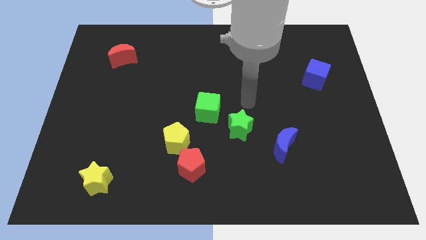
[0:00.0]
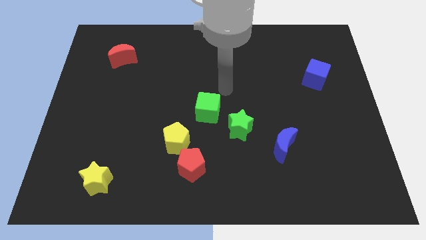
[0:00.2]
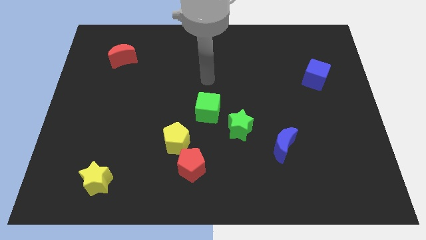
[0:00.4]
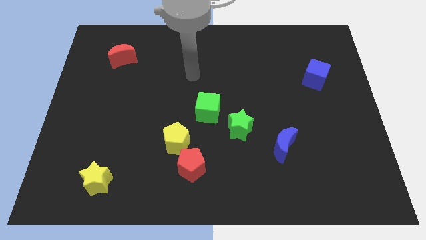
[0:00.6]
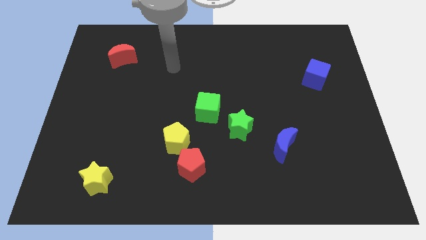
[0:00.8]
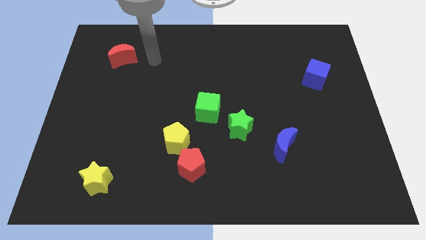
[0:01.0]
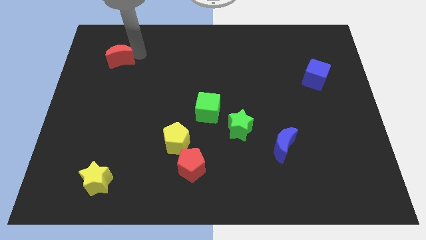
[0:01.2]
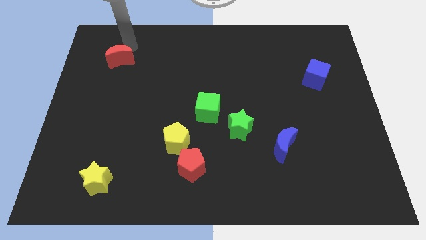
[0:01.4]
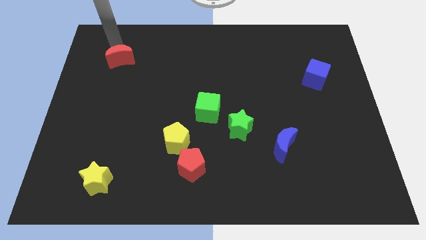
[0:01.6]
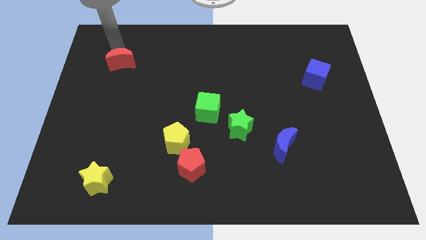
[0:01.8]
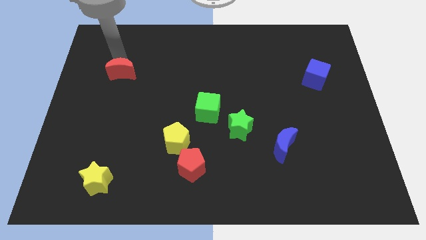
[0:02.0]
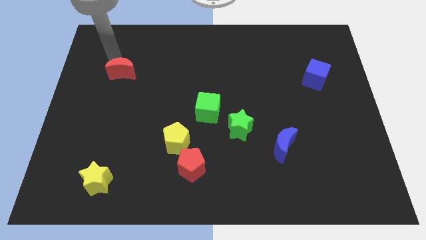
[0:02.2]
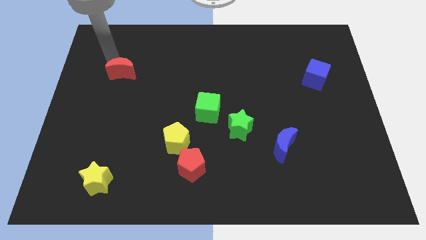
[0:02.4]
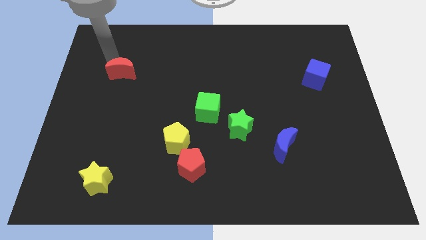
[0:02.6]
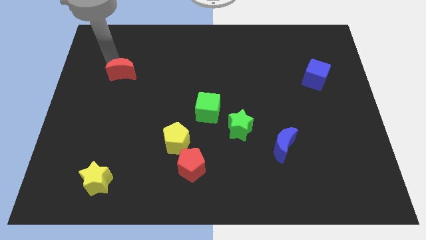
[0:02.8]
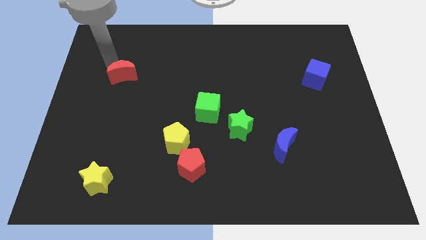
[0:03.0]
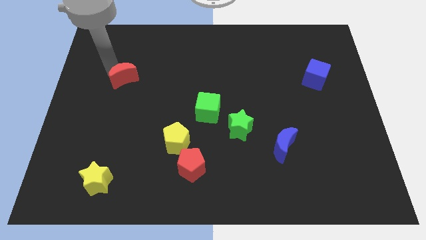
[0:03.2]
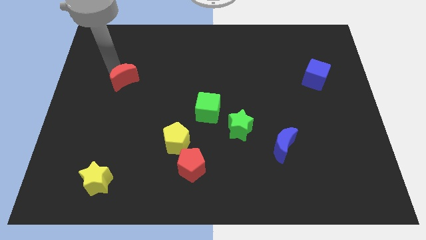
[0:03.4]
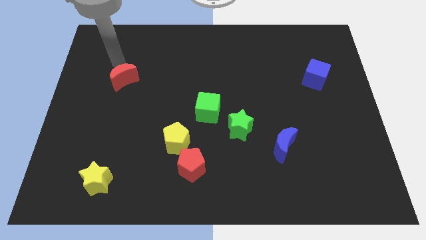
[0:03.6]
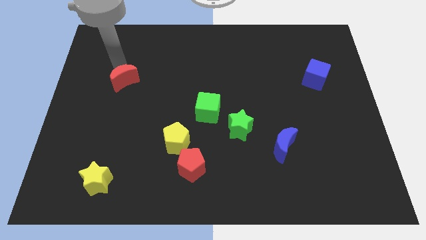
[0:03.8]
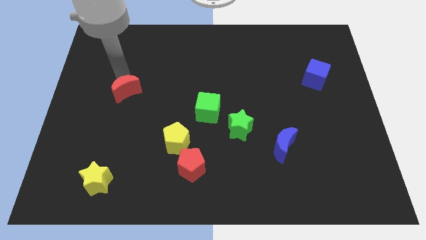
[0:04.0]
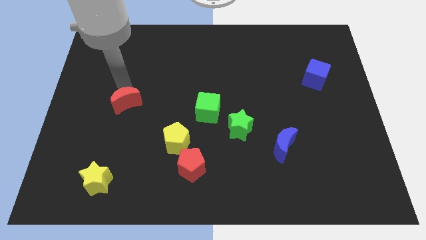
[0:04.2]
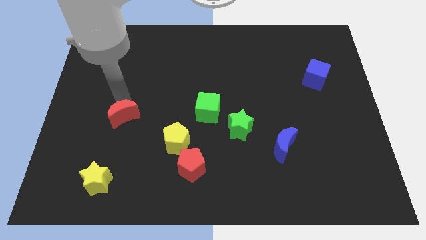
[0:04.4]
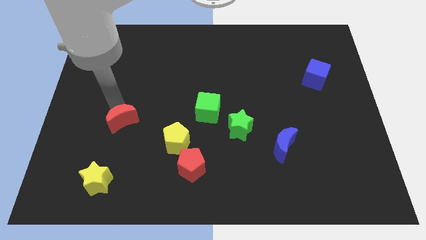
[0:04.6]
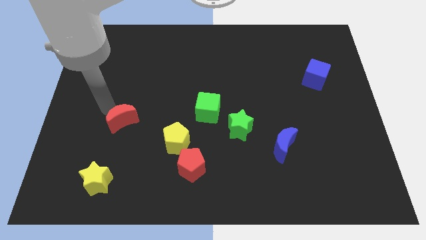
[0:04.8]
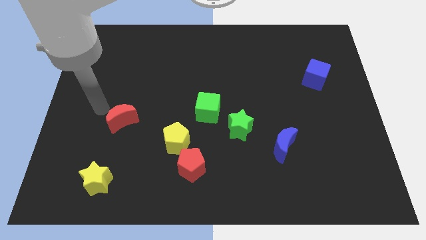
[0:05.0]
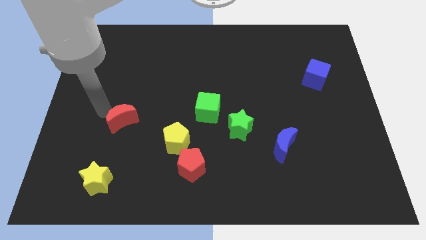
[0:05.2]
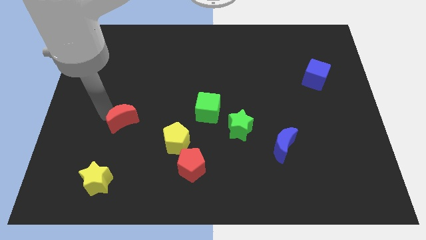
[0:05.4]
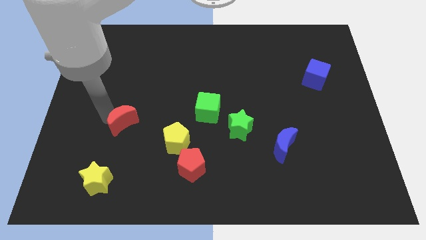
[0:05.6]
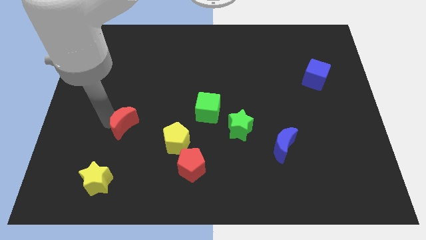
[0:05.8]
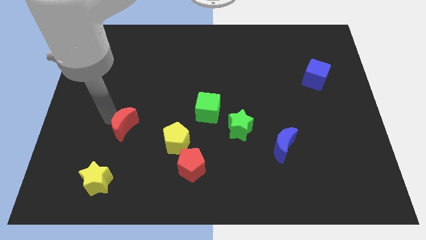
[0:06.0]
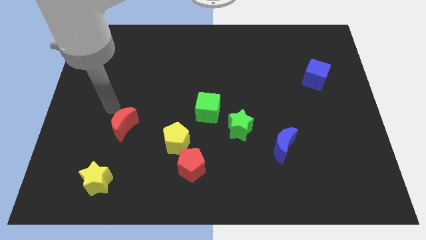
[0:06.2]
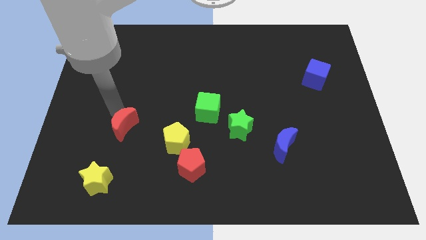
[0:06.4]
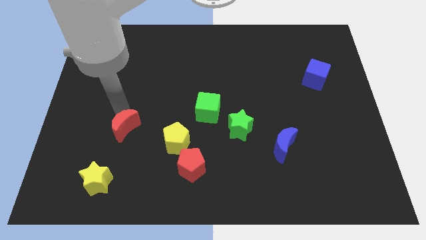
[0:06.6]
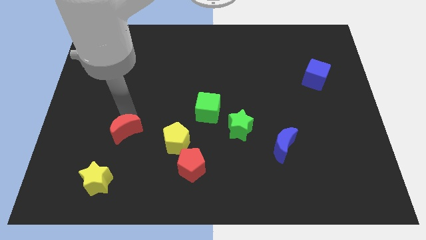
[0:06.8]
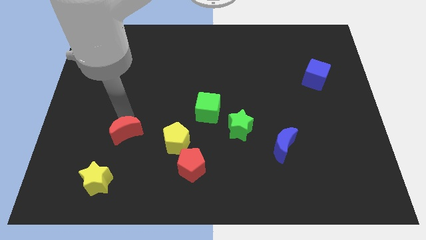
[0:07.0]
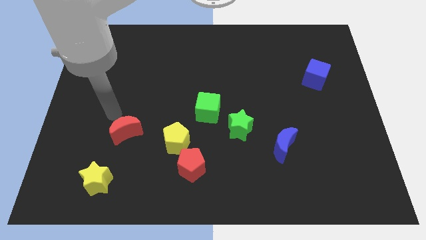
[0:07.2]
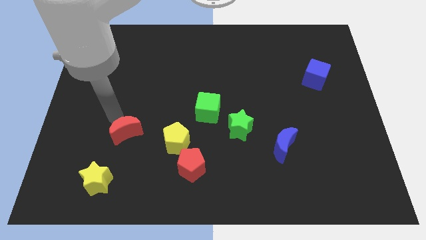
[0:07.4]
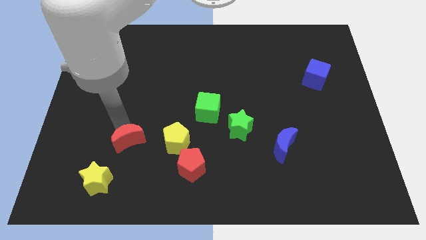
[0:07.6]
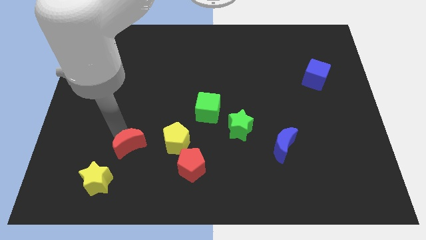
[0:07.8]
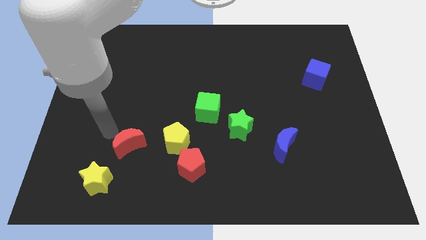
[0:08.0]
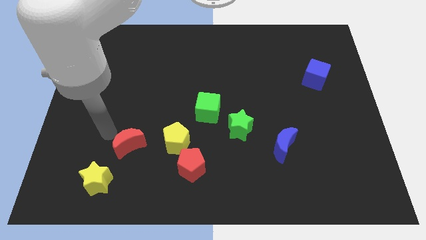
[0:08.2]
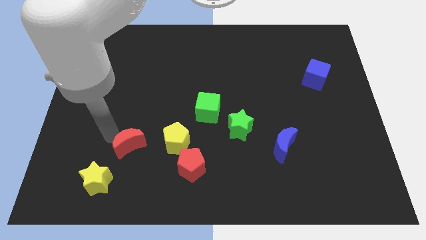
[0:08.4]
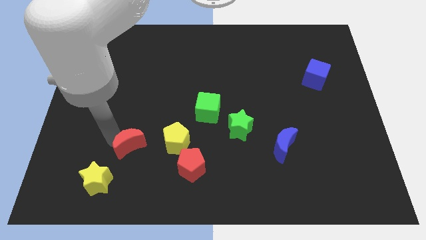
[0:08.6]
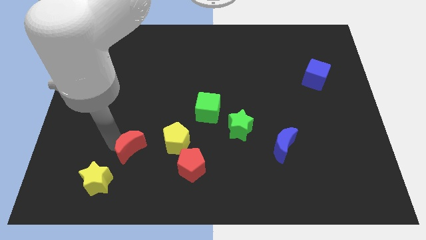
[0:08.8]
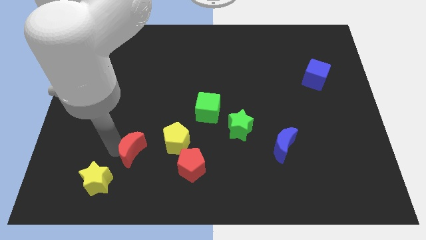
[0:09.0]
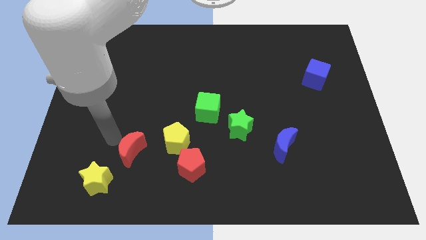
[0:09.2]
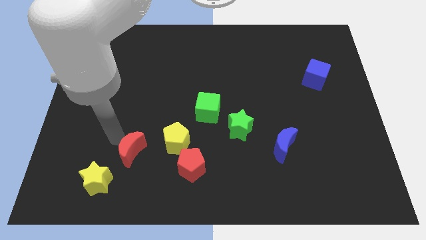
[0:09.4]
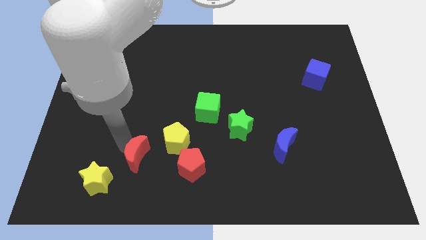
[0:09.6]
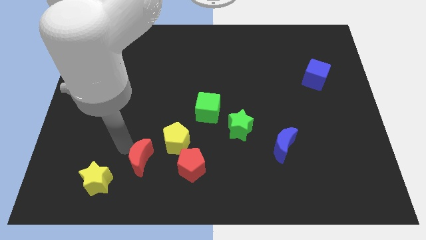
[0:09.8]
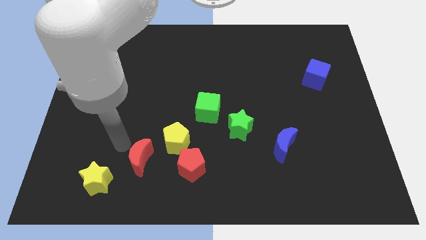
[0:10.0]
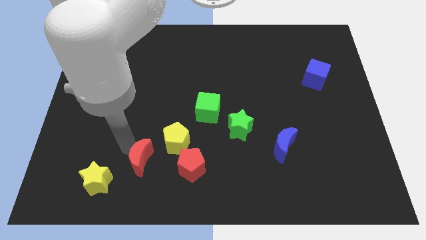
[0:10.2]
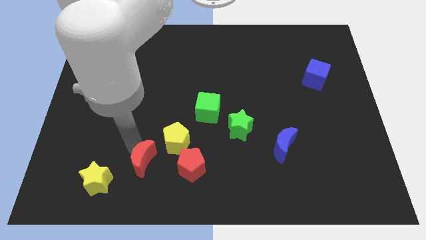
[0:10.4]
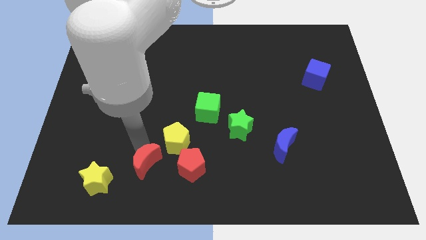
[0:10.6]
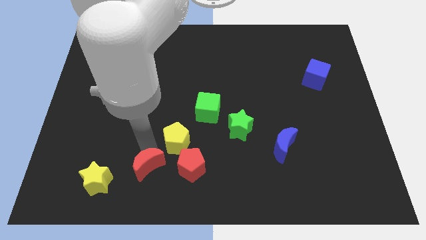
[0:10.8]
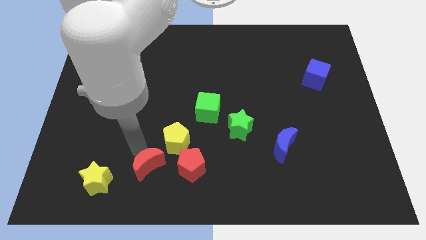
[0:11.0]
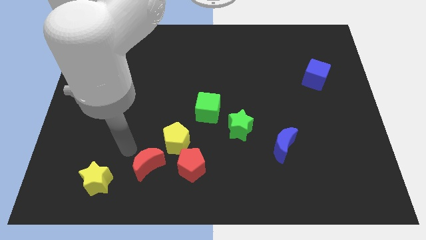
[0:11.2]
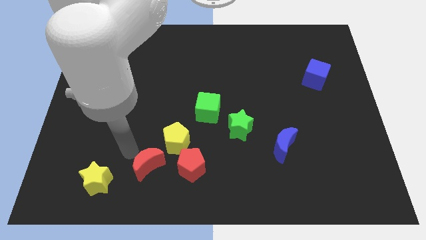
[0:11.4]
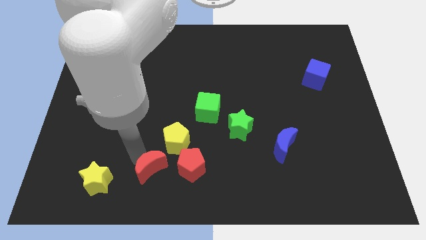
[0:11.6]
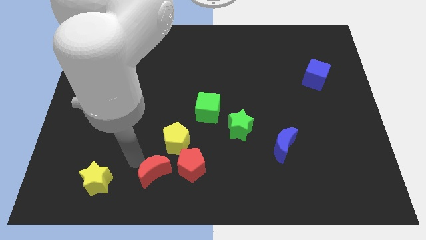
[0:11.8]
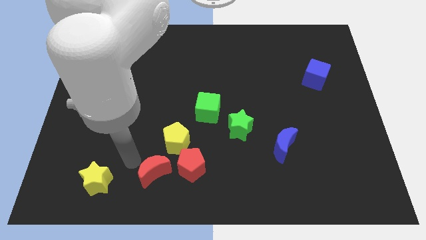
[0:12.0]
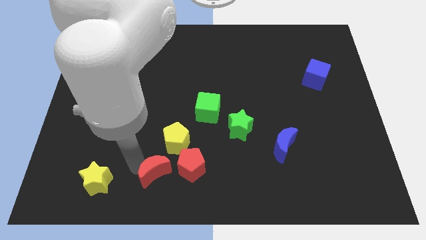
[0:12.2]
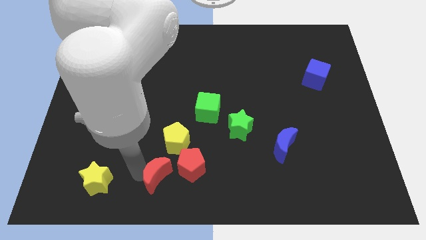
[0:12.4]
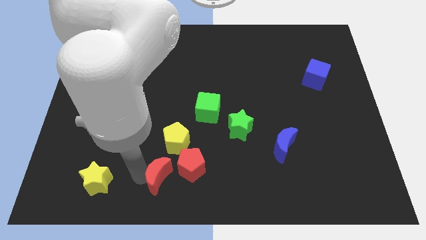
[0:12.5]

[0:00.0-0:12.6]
put the red moon to the bottom

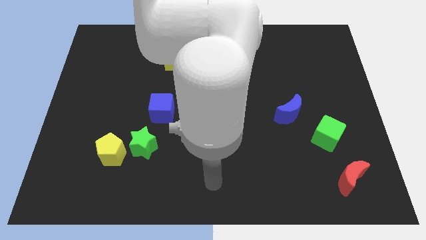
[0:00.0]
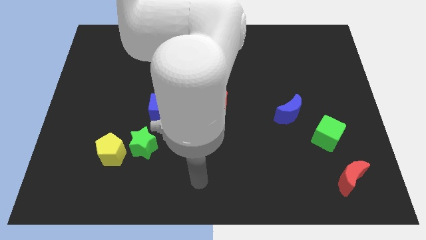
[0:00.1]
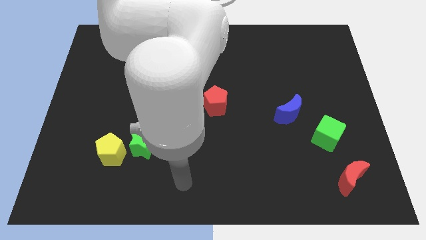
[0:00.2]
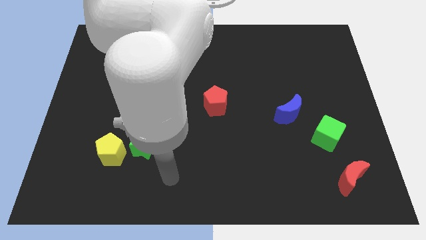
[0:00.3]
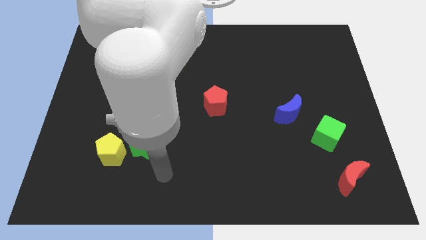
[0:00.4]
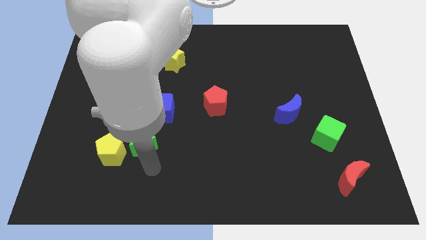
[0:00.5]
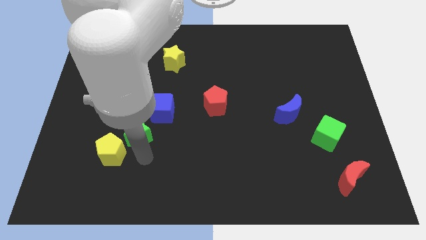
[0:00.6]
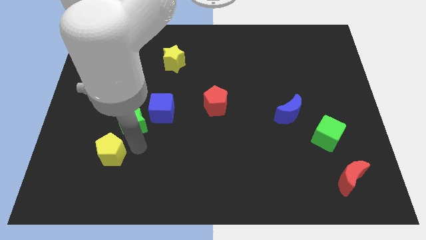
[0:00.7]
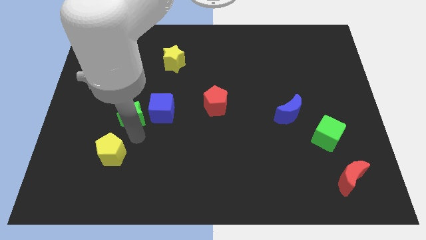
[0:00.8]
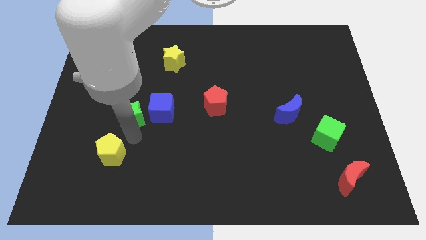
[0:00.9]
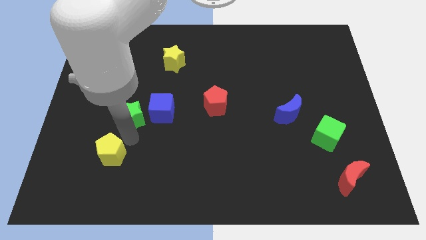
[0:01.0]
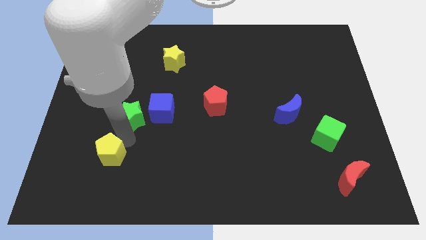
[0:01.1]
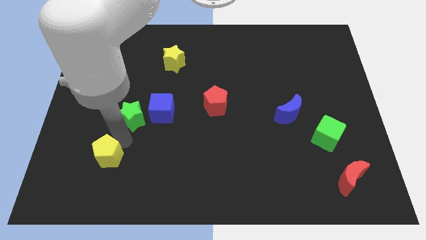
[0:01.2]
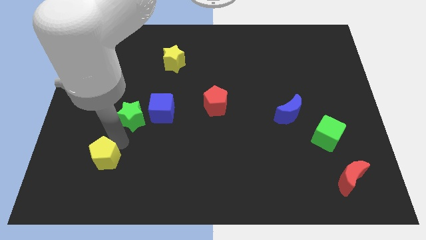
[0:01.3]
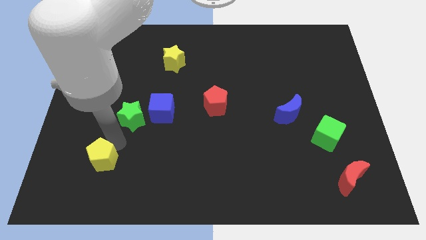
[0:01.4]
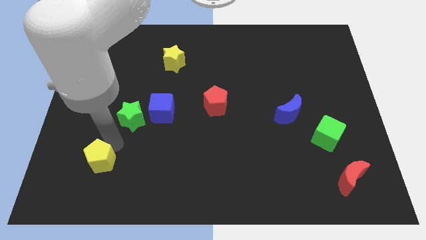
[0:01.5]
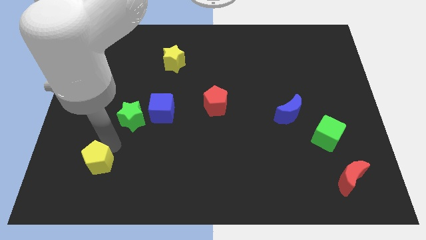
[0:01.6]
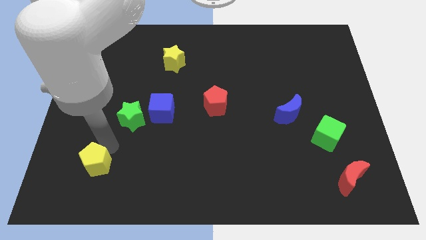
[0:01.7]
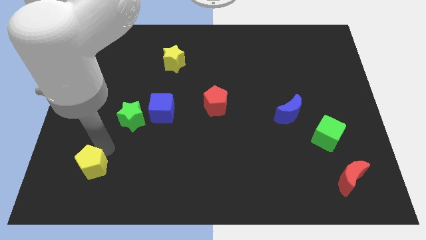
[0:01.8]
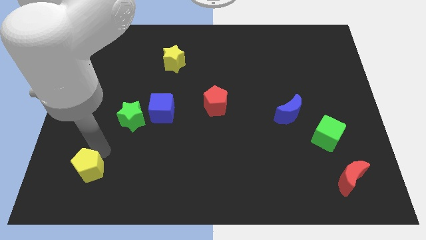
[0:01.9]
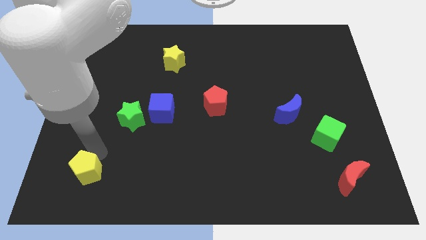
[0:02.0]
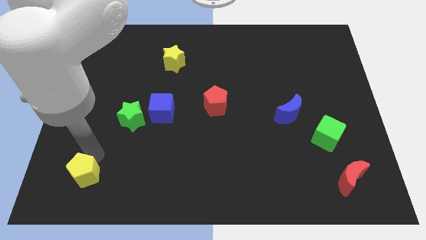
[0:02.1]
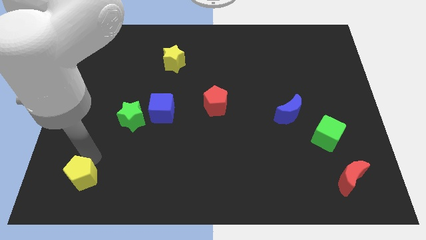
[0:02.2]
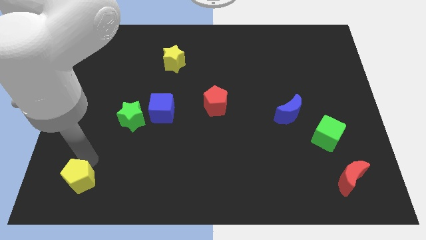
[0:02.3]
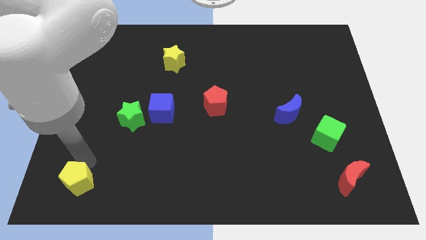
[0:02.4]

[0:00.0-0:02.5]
put the yellow pentagon to the bottom left
